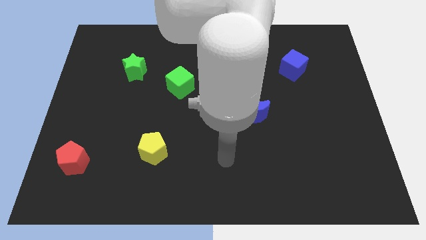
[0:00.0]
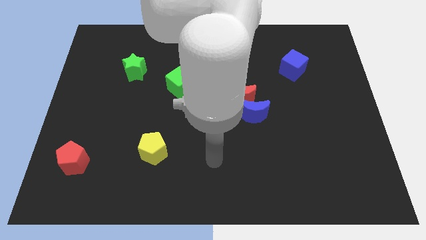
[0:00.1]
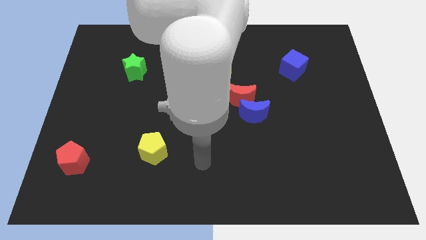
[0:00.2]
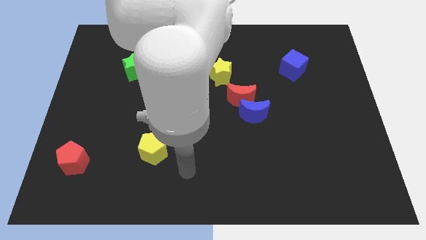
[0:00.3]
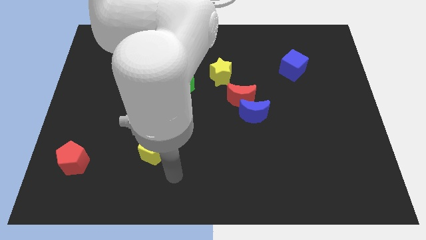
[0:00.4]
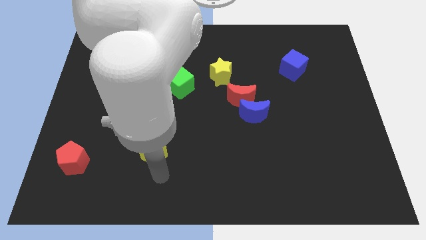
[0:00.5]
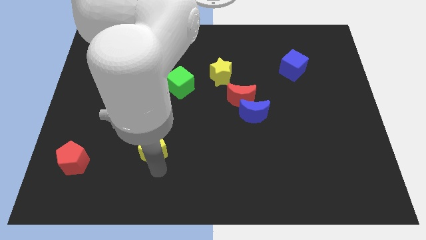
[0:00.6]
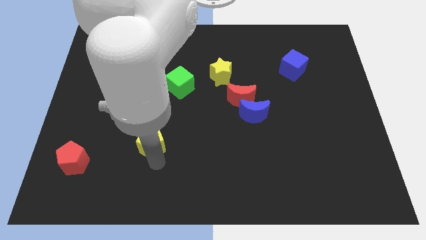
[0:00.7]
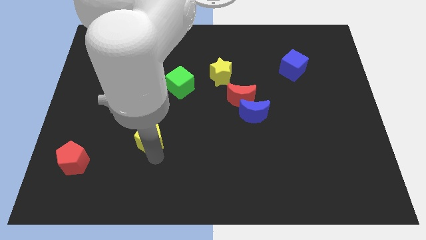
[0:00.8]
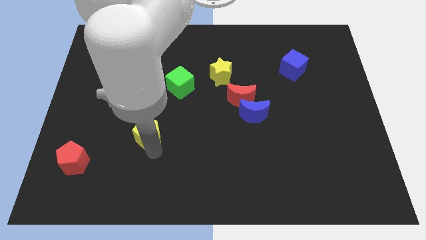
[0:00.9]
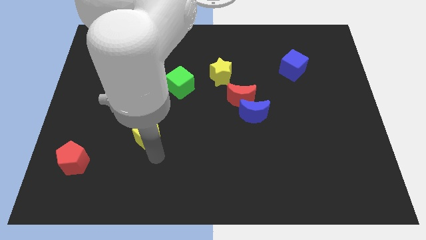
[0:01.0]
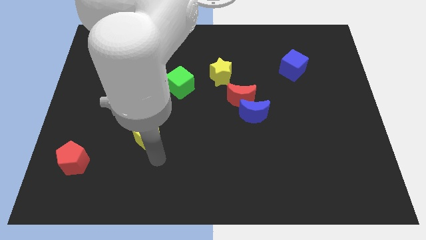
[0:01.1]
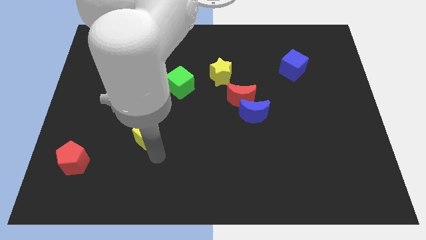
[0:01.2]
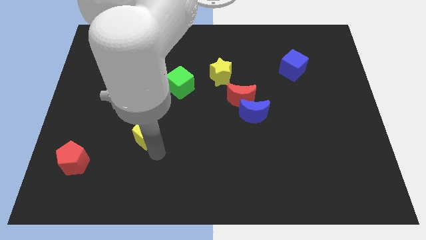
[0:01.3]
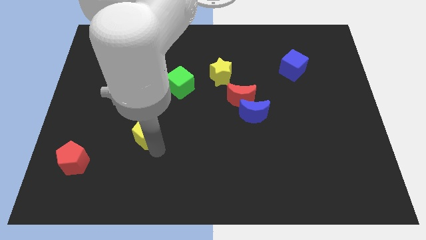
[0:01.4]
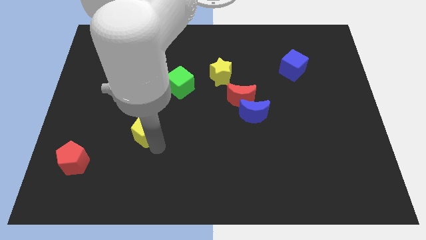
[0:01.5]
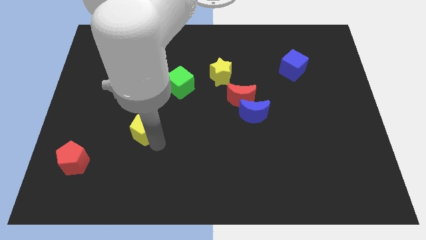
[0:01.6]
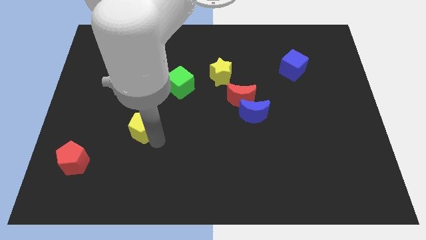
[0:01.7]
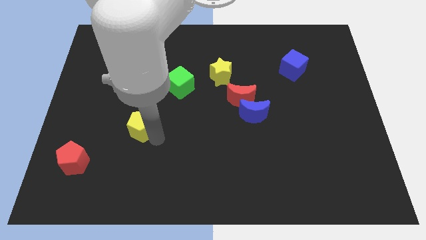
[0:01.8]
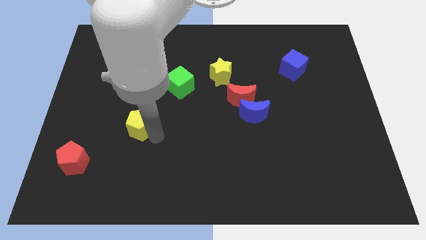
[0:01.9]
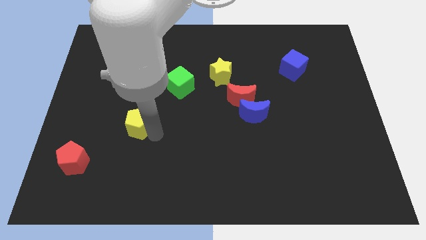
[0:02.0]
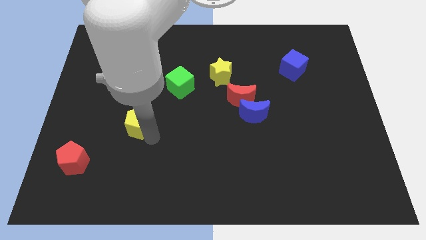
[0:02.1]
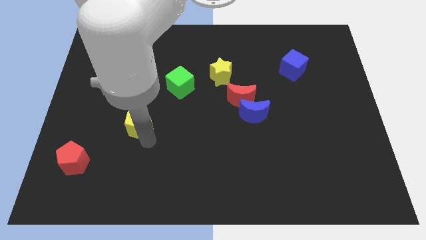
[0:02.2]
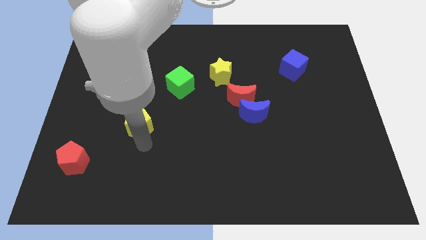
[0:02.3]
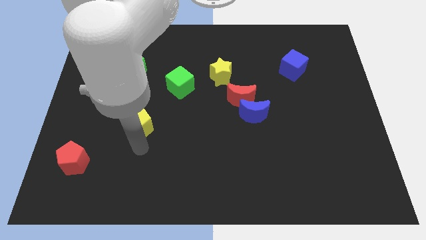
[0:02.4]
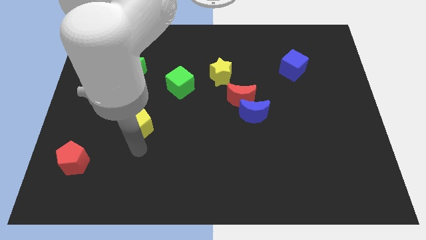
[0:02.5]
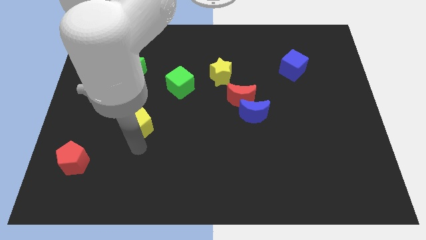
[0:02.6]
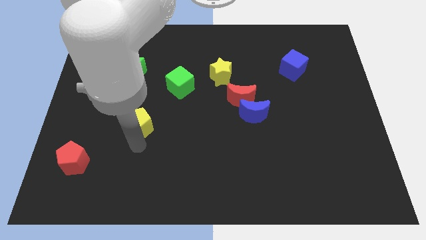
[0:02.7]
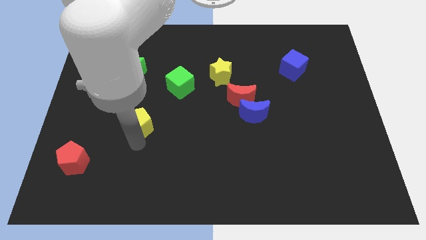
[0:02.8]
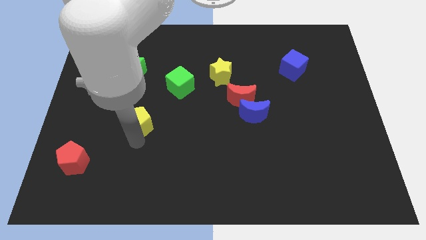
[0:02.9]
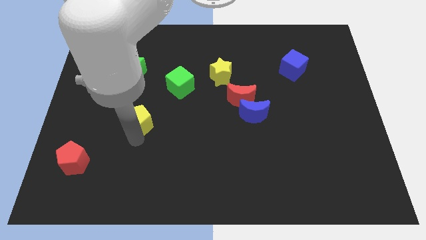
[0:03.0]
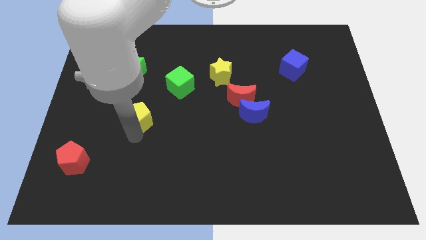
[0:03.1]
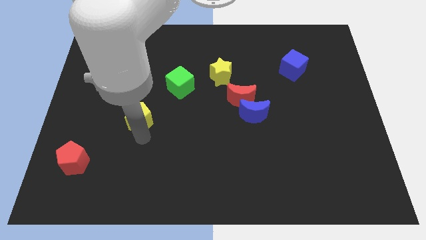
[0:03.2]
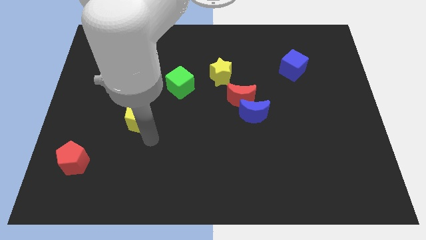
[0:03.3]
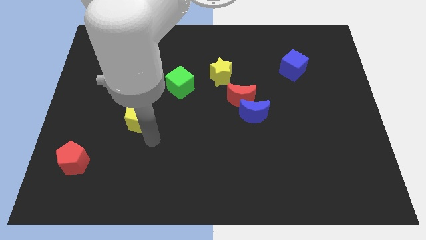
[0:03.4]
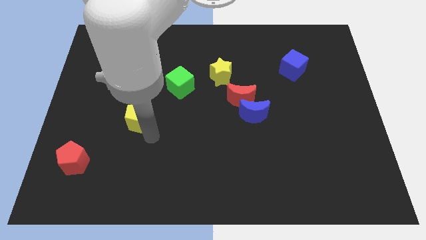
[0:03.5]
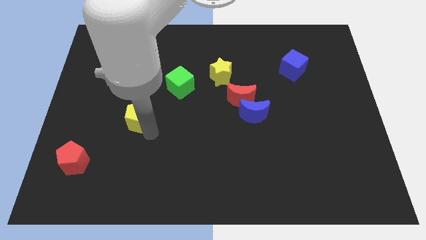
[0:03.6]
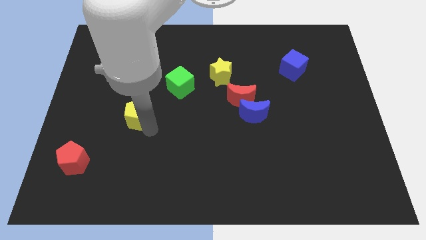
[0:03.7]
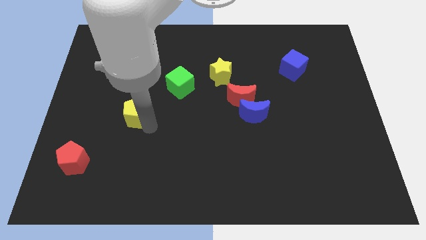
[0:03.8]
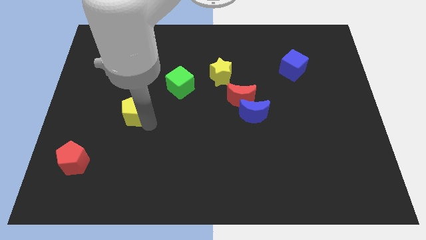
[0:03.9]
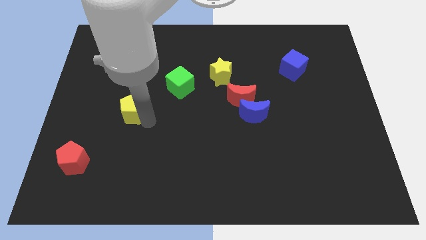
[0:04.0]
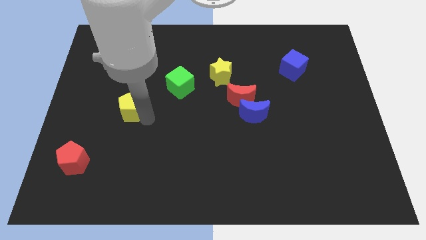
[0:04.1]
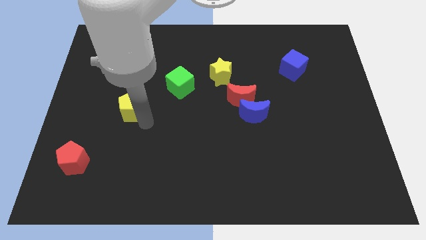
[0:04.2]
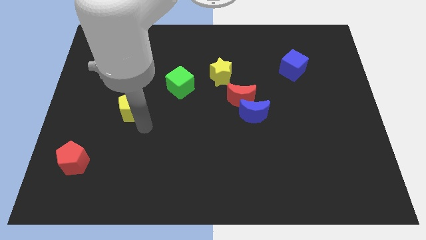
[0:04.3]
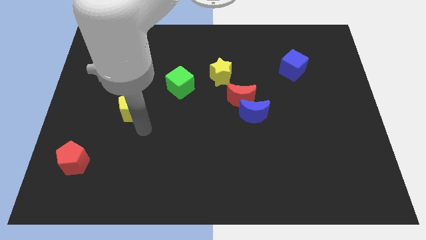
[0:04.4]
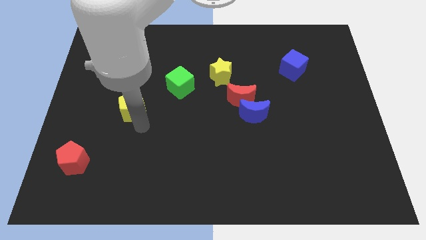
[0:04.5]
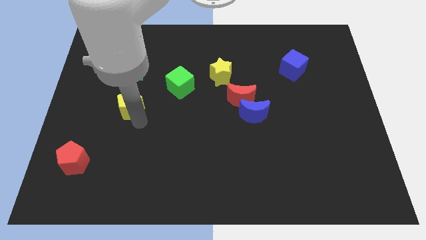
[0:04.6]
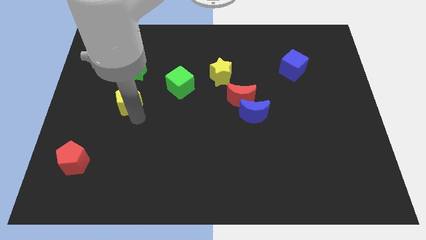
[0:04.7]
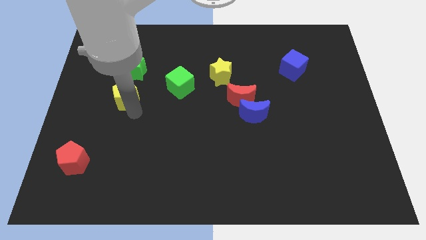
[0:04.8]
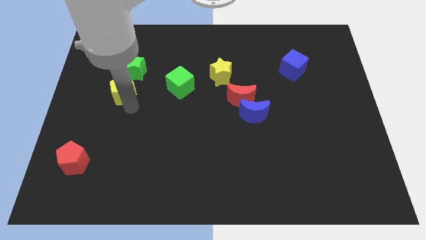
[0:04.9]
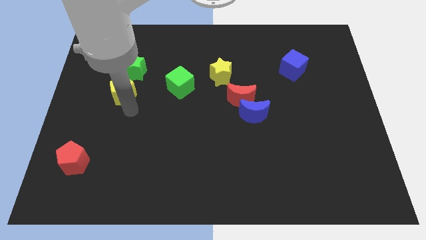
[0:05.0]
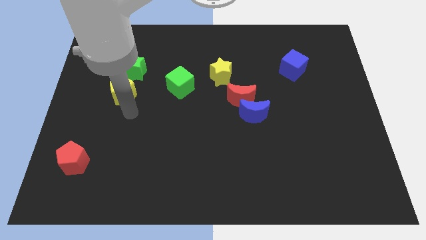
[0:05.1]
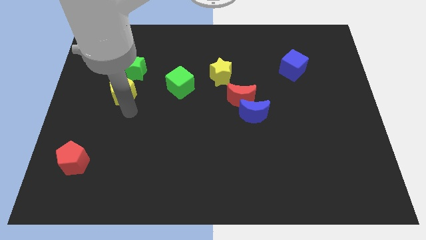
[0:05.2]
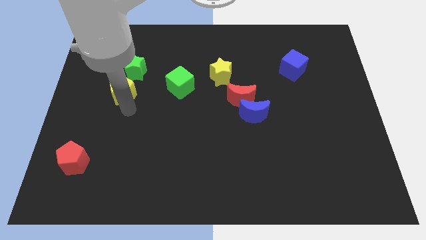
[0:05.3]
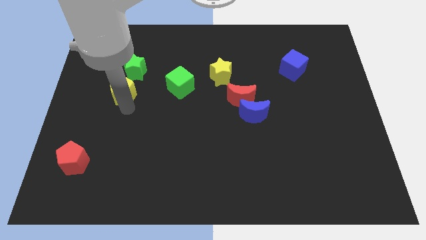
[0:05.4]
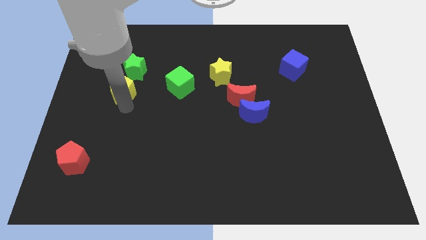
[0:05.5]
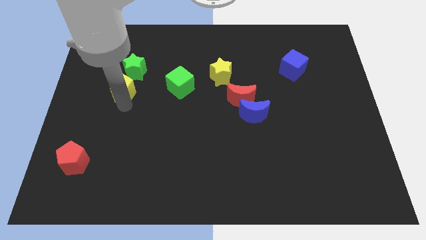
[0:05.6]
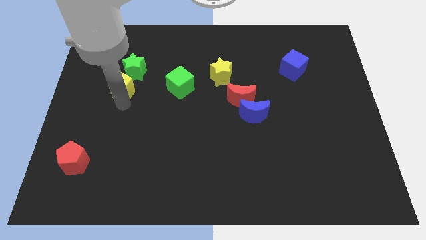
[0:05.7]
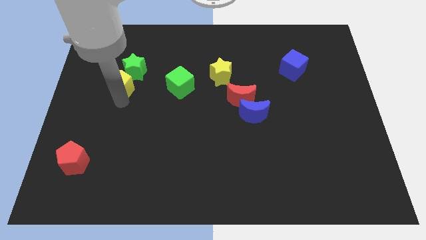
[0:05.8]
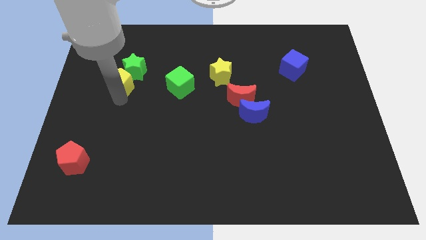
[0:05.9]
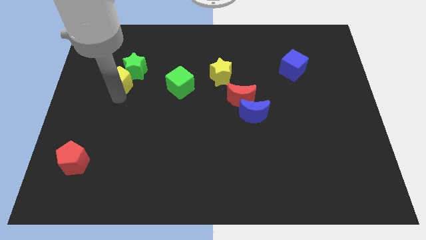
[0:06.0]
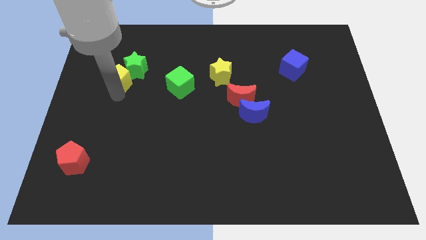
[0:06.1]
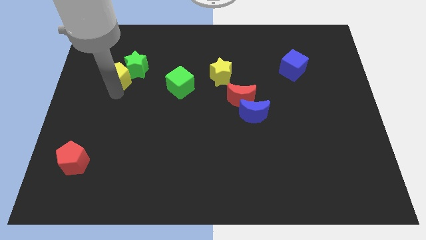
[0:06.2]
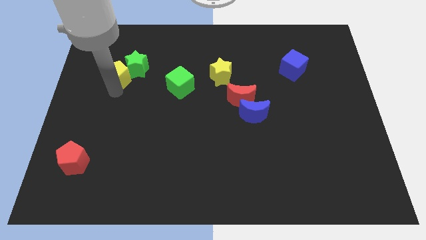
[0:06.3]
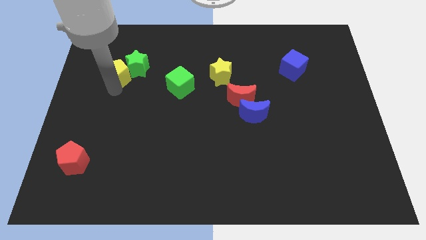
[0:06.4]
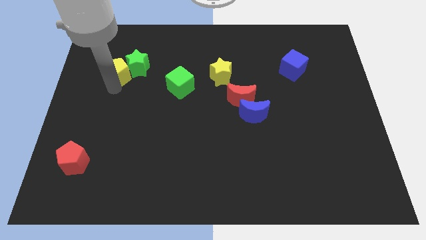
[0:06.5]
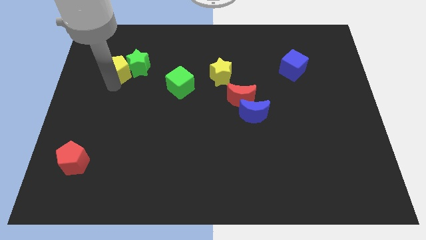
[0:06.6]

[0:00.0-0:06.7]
push the yellow pentagon to the top left side of the green star
